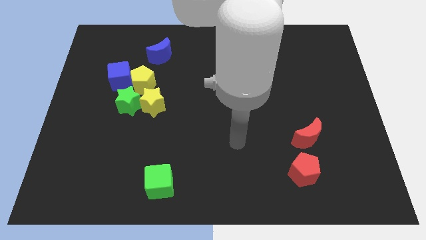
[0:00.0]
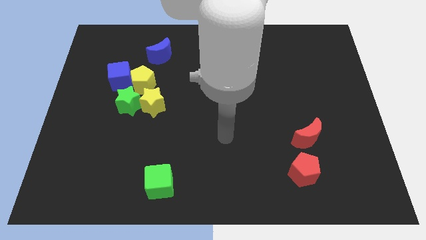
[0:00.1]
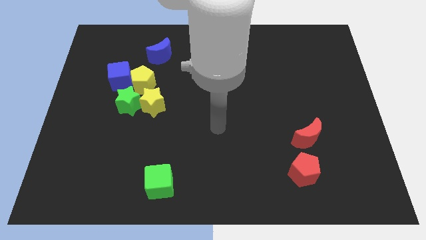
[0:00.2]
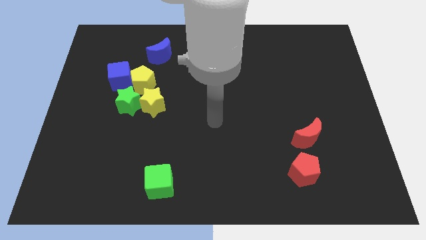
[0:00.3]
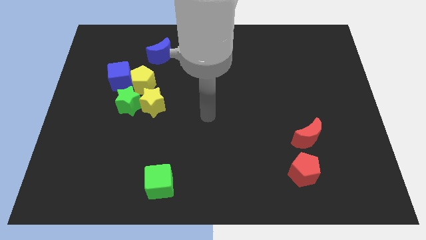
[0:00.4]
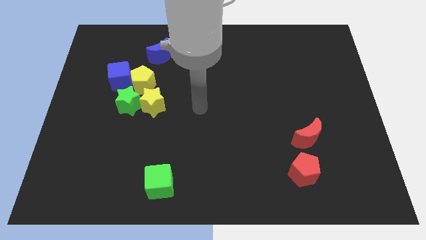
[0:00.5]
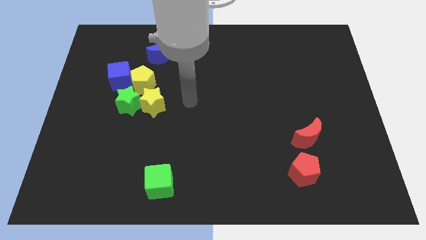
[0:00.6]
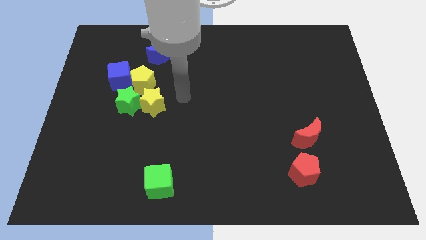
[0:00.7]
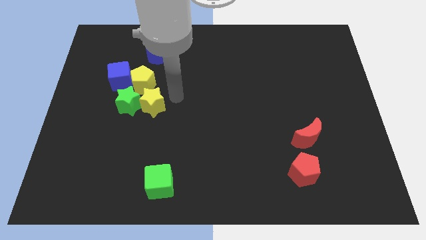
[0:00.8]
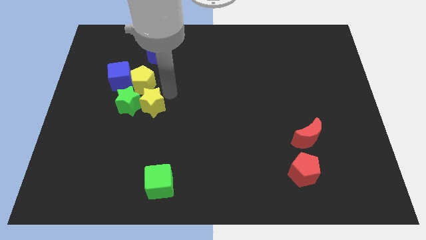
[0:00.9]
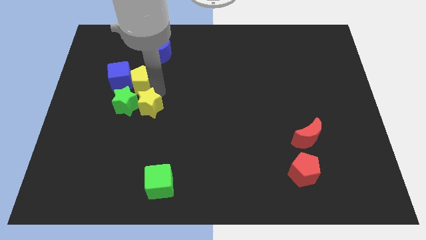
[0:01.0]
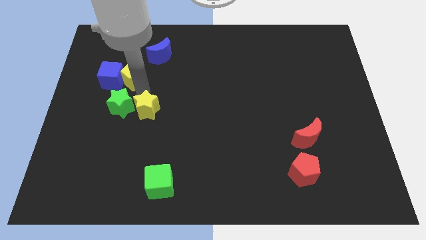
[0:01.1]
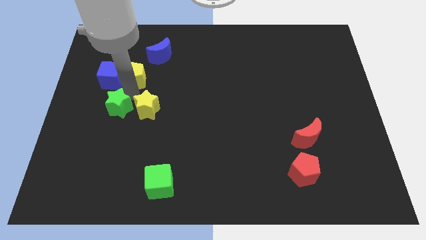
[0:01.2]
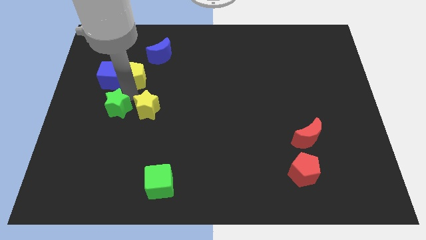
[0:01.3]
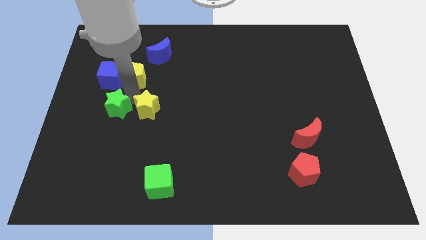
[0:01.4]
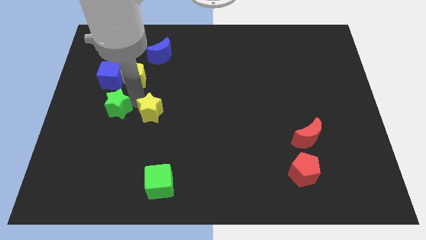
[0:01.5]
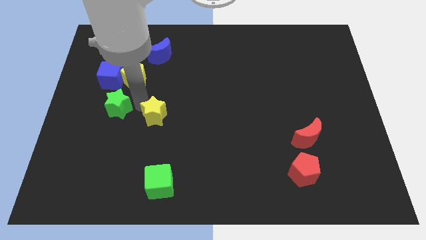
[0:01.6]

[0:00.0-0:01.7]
move the yellow star away from the green star and yellow pentagon

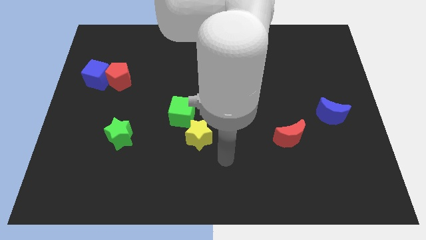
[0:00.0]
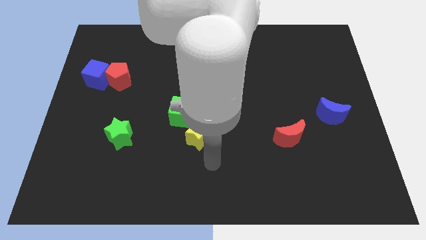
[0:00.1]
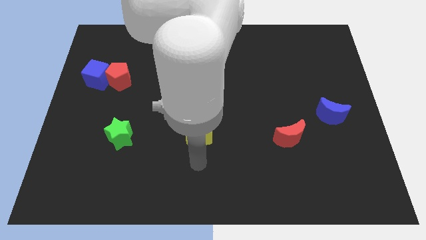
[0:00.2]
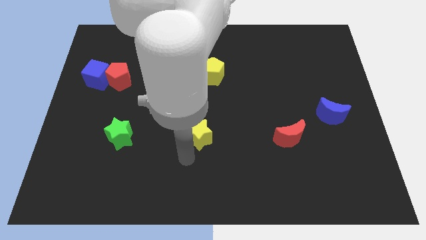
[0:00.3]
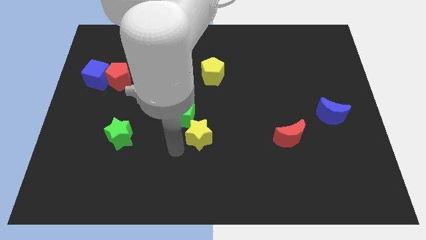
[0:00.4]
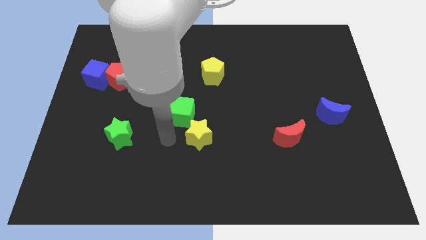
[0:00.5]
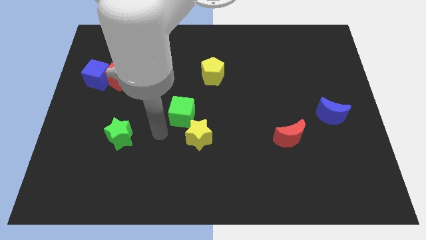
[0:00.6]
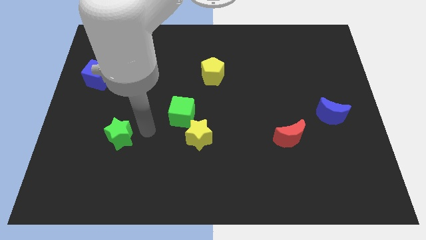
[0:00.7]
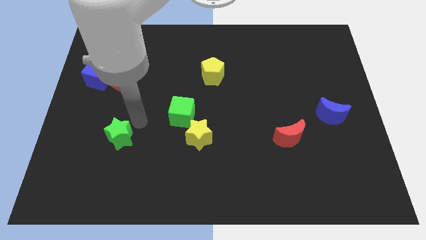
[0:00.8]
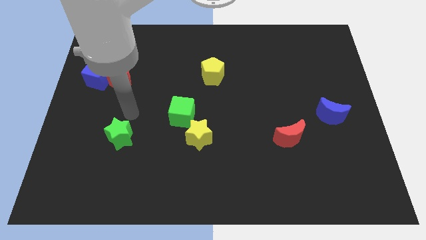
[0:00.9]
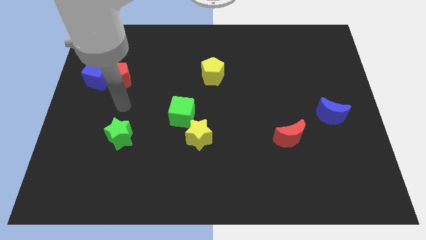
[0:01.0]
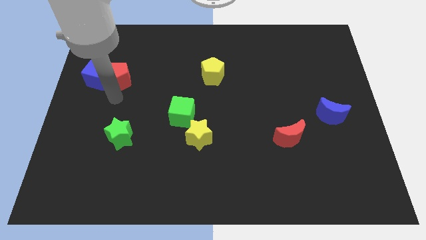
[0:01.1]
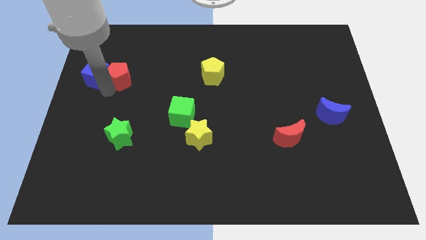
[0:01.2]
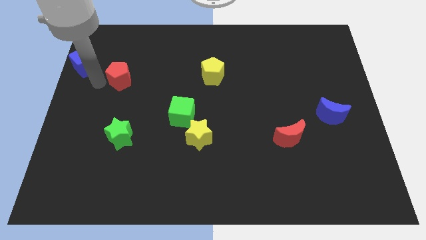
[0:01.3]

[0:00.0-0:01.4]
separate the red pentagon from the blue cube

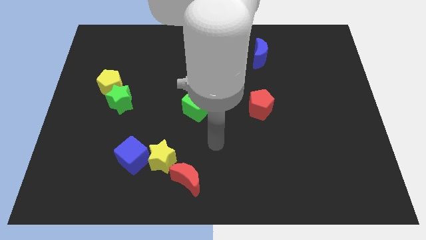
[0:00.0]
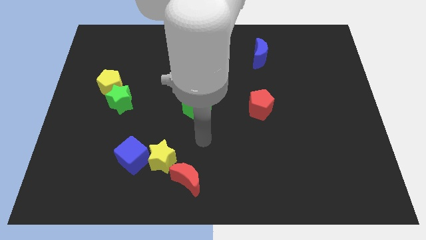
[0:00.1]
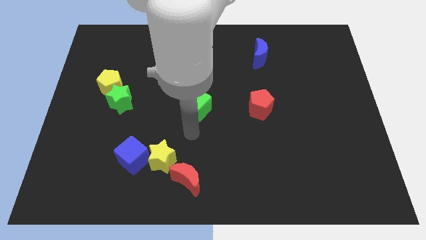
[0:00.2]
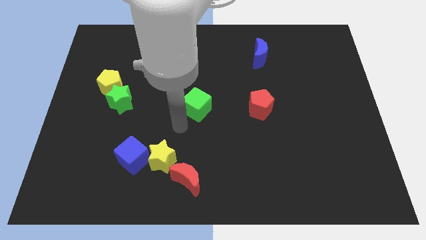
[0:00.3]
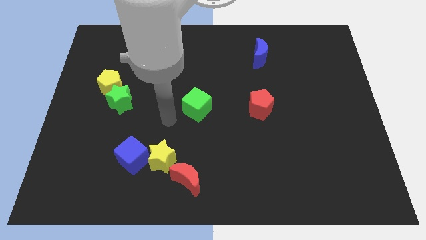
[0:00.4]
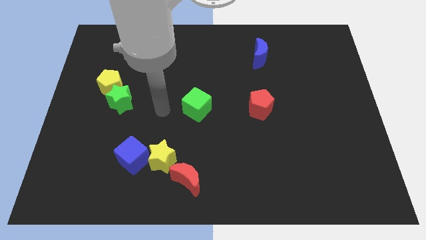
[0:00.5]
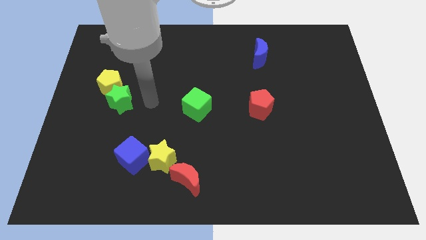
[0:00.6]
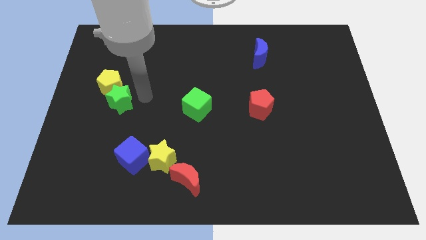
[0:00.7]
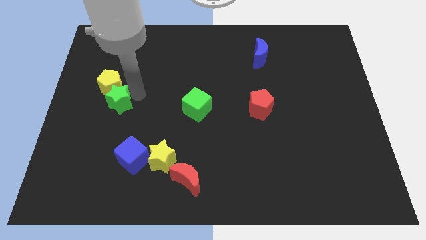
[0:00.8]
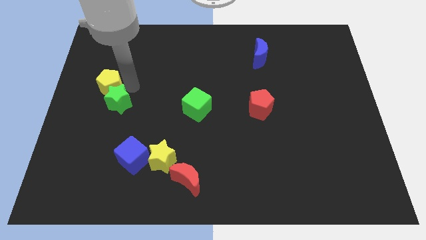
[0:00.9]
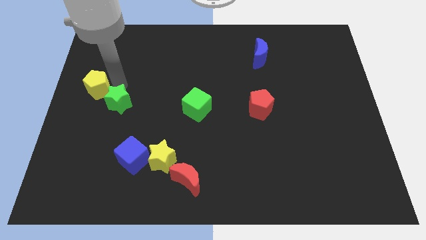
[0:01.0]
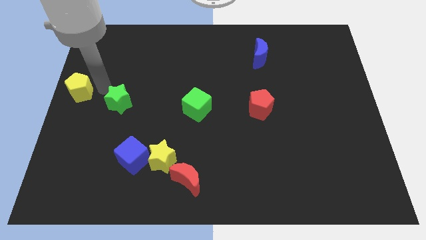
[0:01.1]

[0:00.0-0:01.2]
pull the green star apart from the yellow pentagon

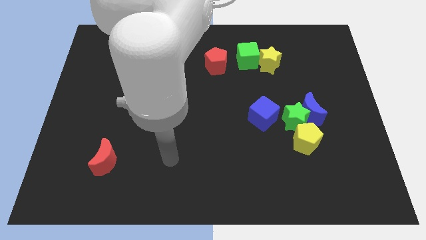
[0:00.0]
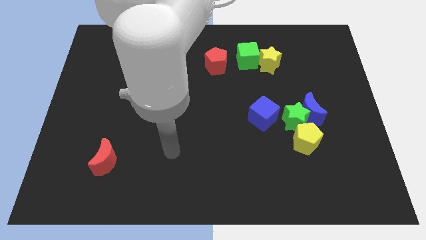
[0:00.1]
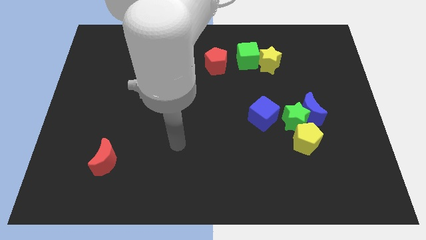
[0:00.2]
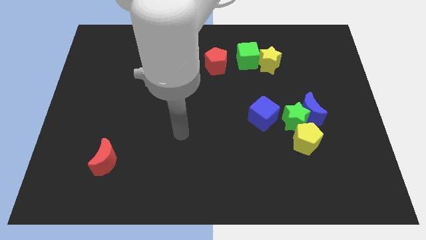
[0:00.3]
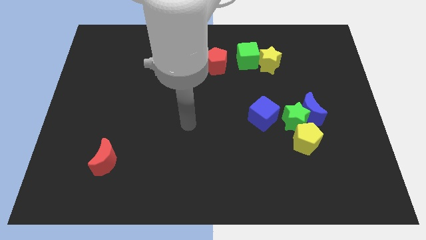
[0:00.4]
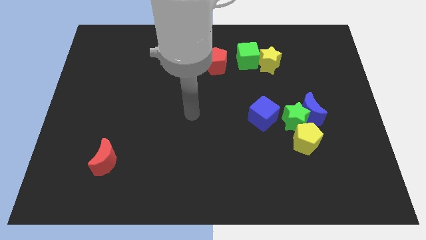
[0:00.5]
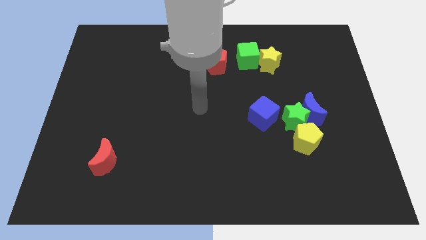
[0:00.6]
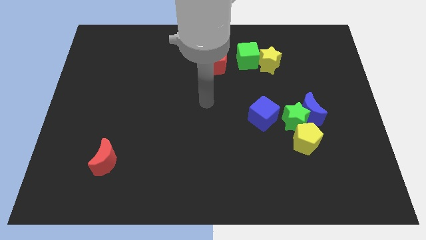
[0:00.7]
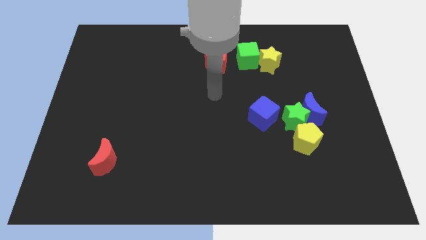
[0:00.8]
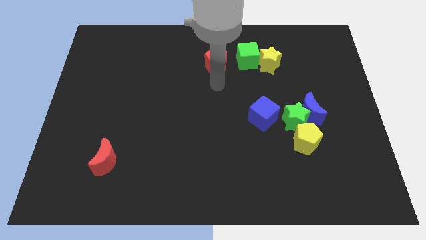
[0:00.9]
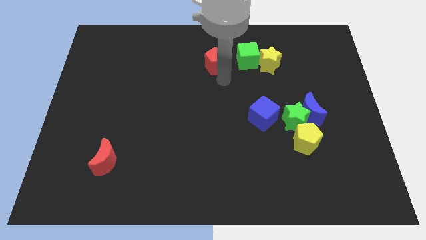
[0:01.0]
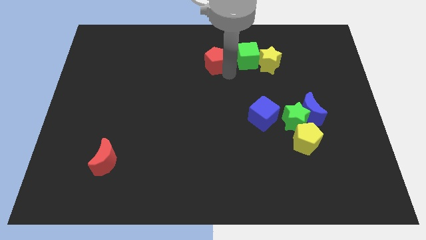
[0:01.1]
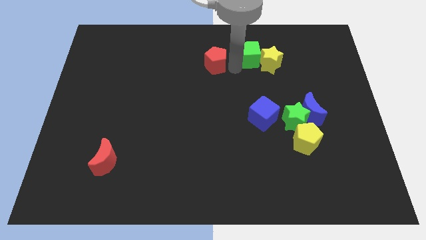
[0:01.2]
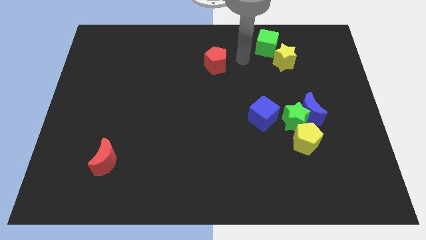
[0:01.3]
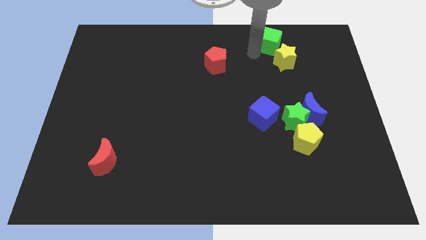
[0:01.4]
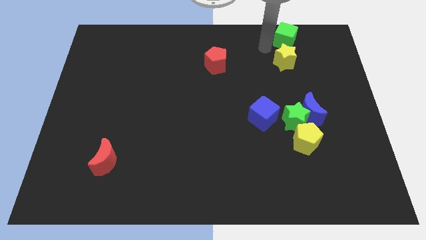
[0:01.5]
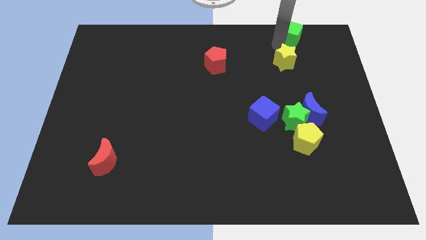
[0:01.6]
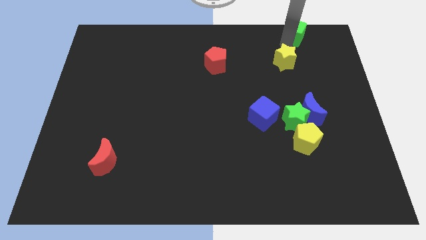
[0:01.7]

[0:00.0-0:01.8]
pull the yellow star apart from the green cube

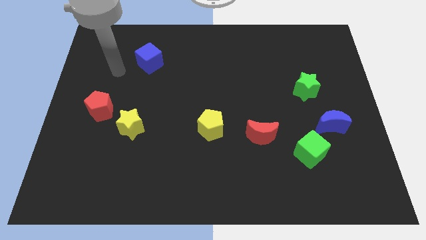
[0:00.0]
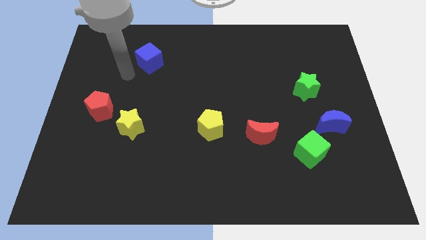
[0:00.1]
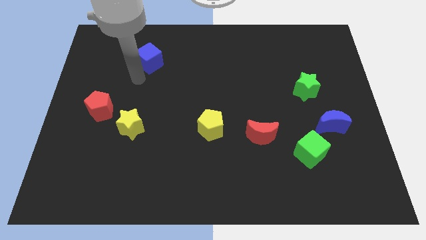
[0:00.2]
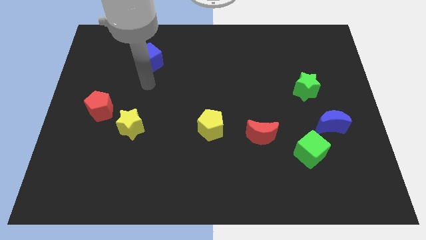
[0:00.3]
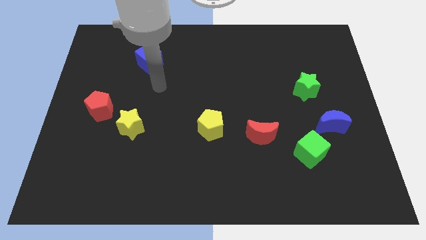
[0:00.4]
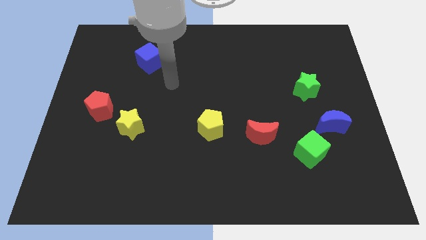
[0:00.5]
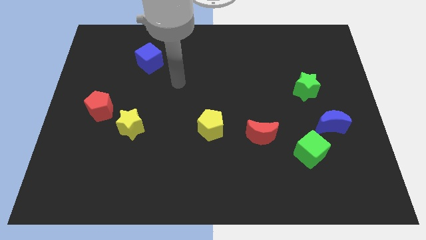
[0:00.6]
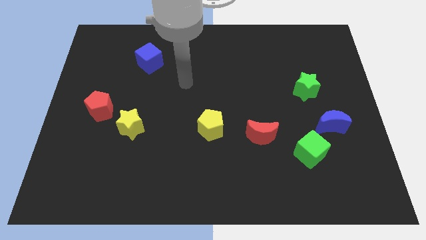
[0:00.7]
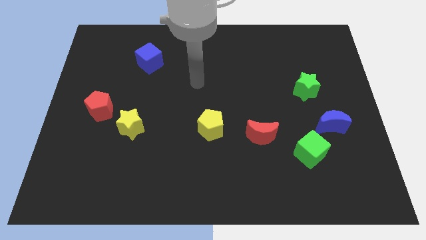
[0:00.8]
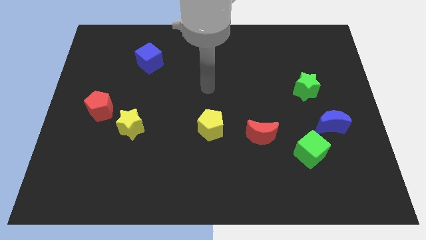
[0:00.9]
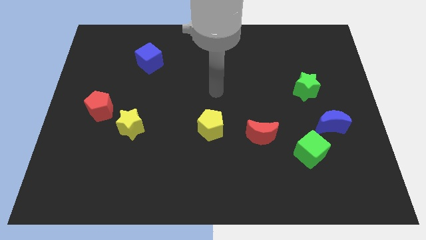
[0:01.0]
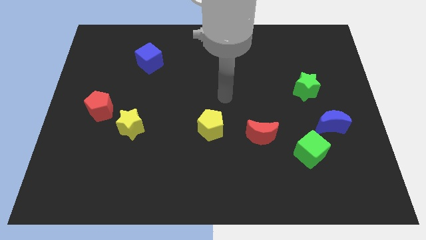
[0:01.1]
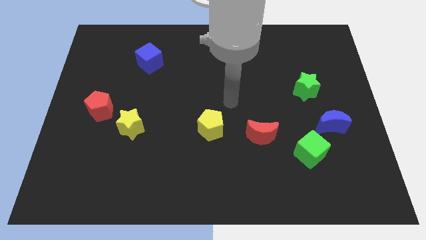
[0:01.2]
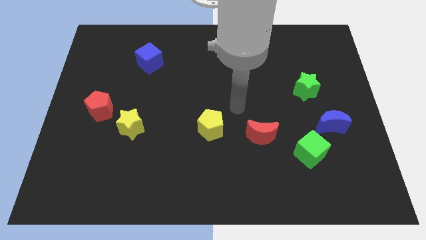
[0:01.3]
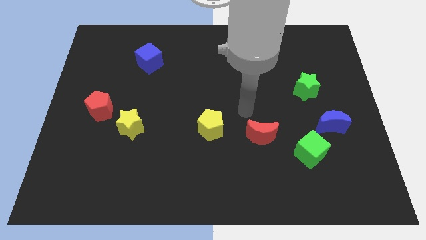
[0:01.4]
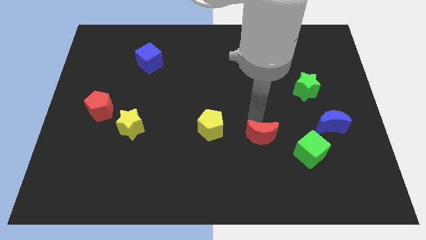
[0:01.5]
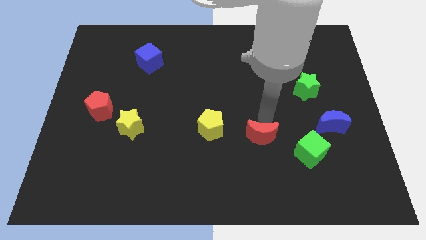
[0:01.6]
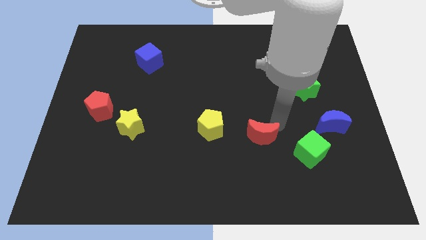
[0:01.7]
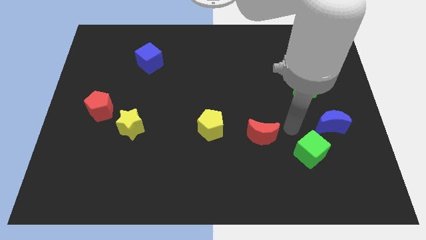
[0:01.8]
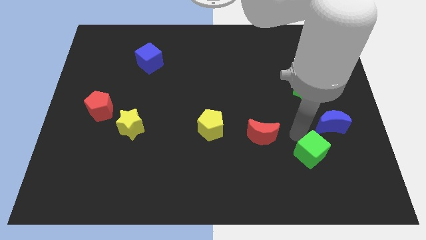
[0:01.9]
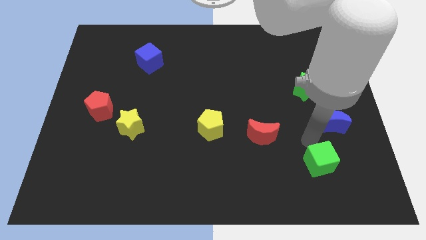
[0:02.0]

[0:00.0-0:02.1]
move the blue moon away from the green cube

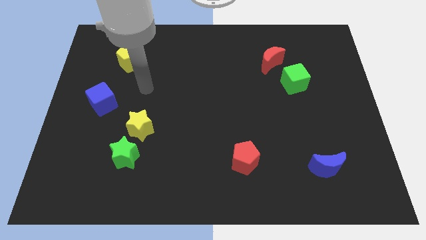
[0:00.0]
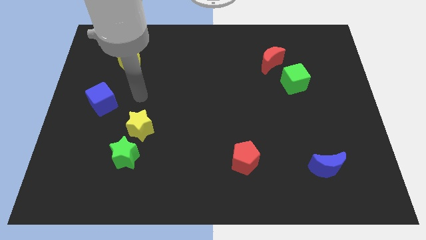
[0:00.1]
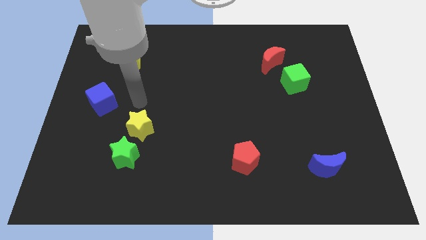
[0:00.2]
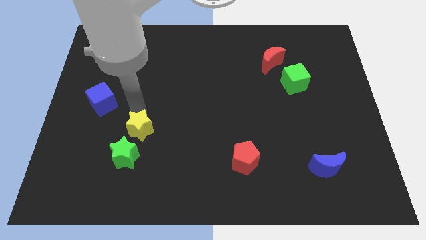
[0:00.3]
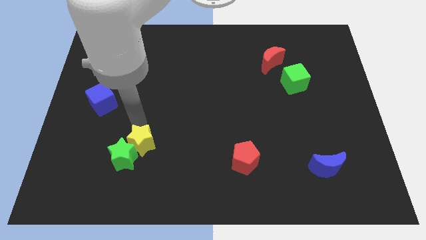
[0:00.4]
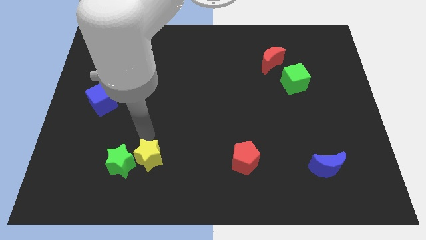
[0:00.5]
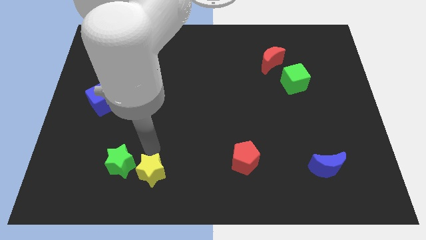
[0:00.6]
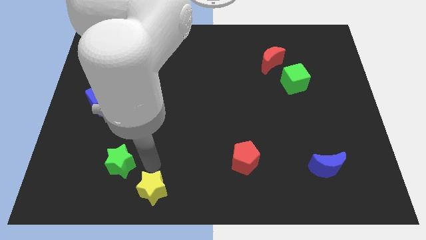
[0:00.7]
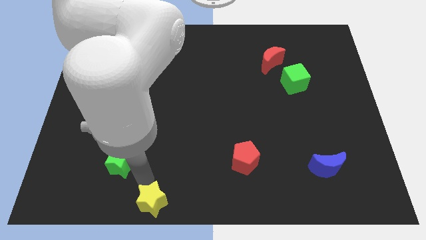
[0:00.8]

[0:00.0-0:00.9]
move the green star away from the yellow star

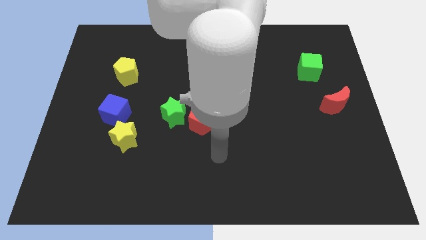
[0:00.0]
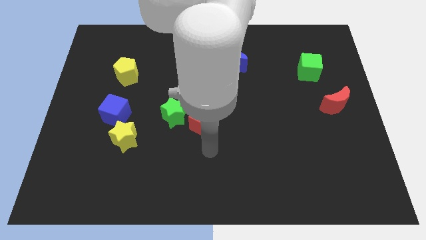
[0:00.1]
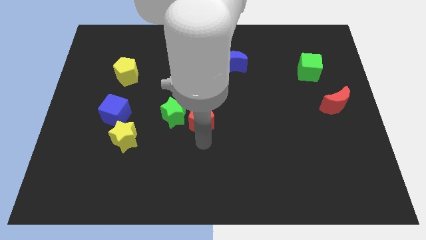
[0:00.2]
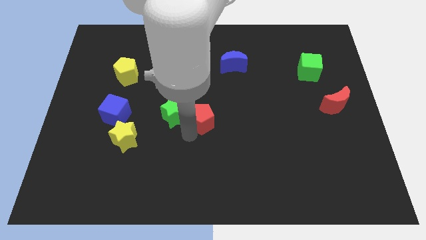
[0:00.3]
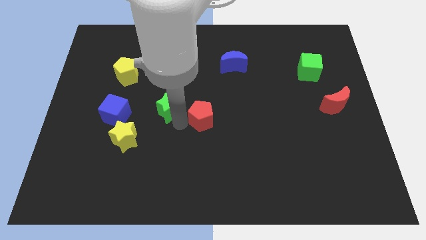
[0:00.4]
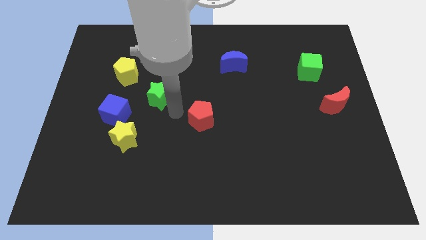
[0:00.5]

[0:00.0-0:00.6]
pull the red pentagon apart from the green star
